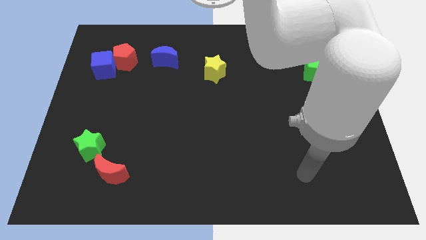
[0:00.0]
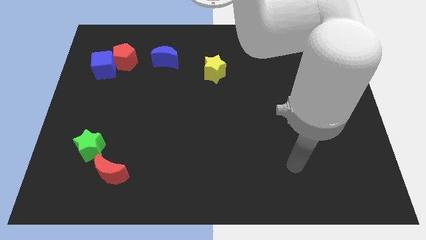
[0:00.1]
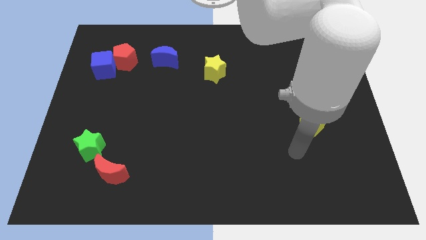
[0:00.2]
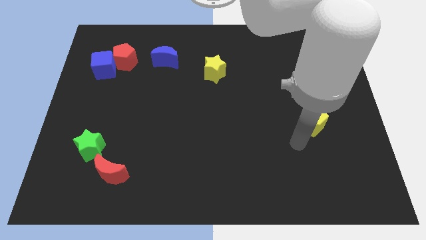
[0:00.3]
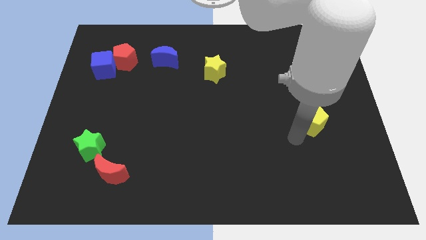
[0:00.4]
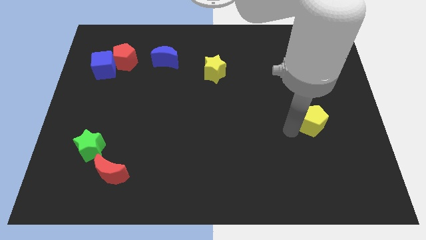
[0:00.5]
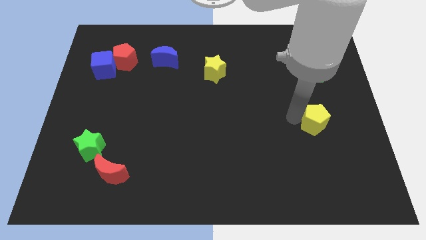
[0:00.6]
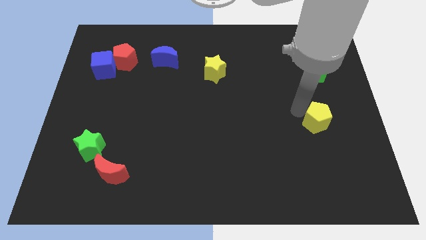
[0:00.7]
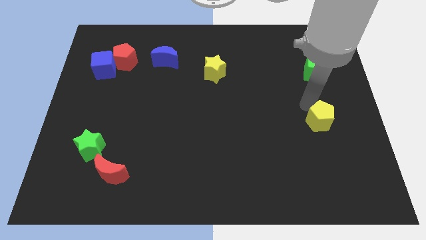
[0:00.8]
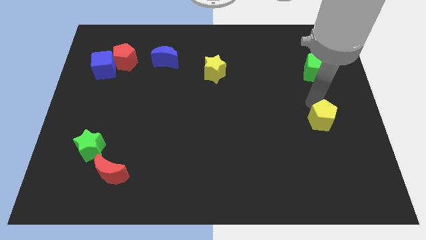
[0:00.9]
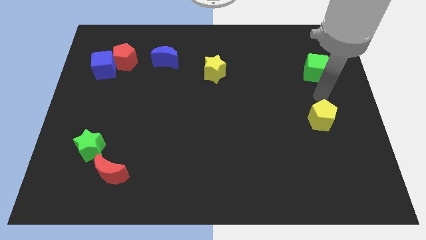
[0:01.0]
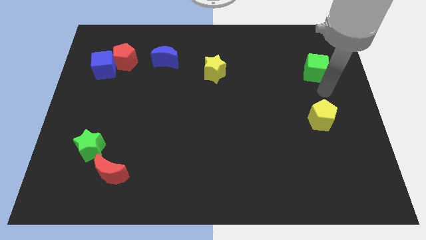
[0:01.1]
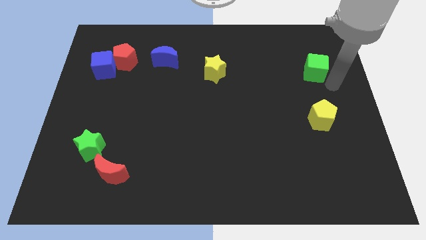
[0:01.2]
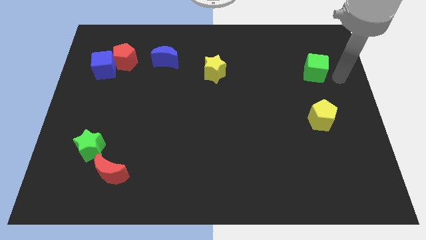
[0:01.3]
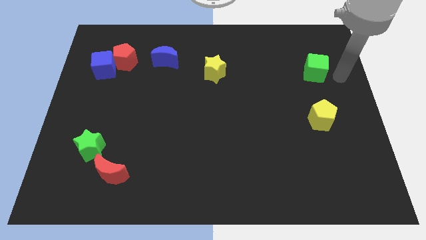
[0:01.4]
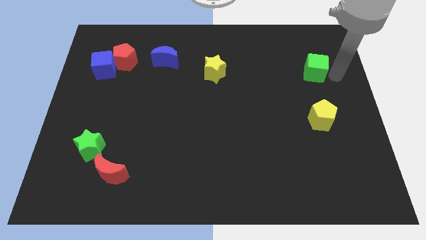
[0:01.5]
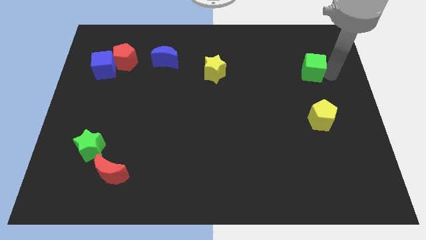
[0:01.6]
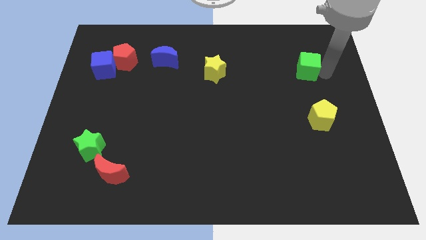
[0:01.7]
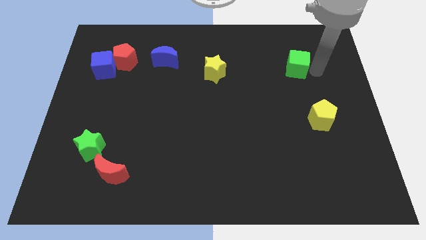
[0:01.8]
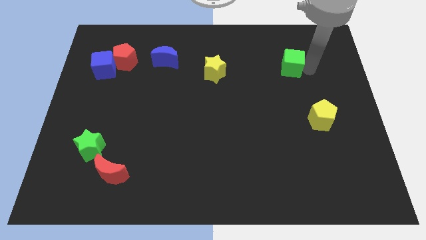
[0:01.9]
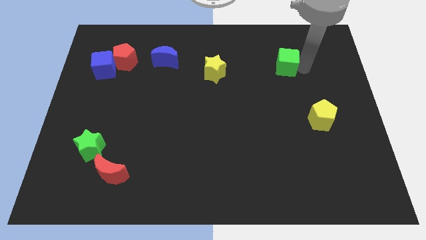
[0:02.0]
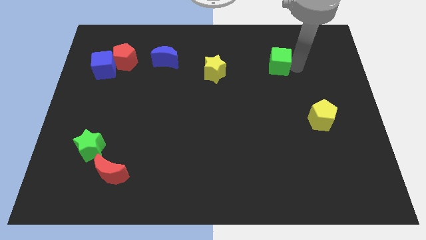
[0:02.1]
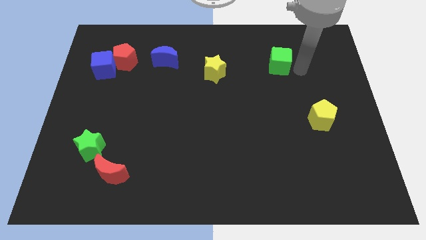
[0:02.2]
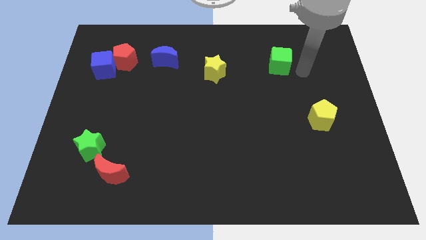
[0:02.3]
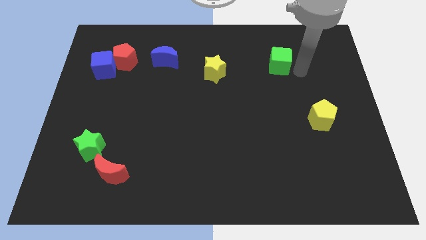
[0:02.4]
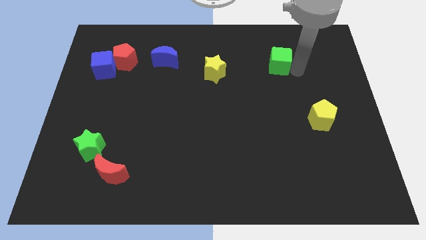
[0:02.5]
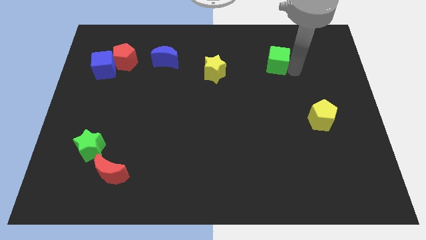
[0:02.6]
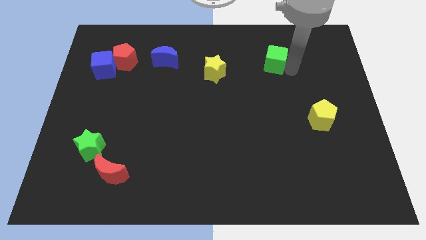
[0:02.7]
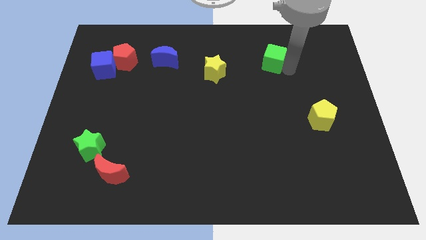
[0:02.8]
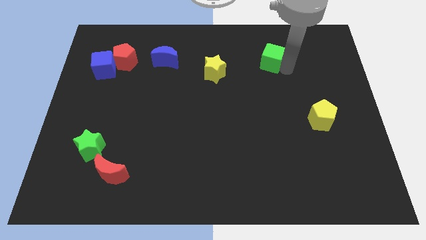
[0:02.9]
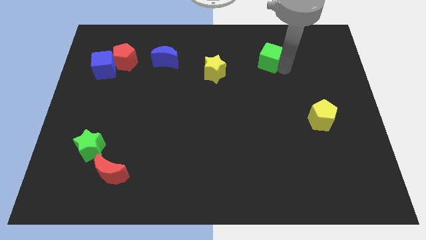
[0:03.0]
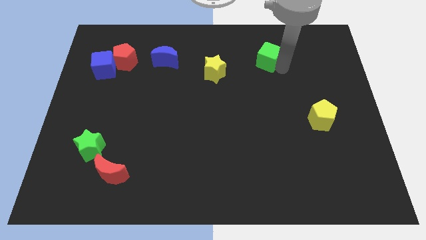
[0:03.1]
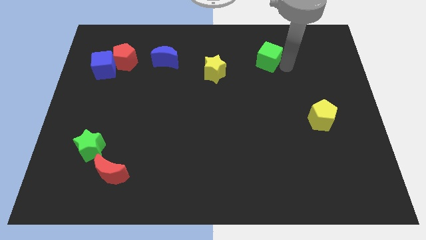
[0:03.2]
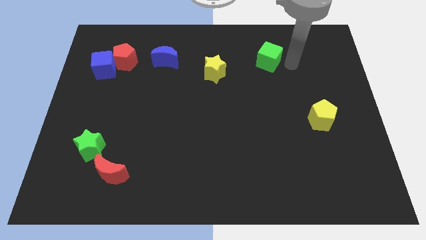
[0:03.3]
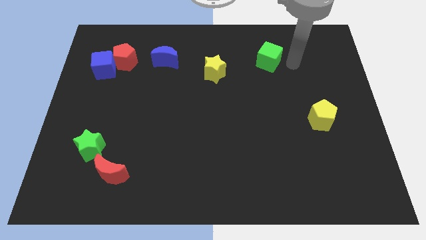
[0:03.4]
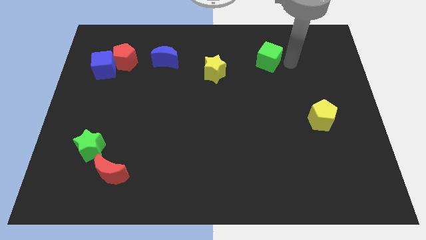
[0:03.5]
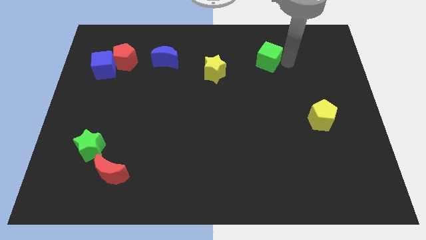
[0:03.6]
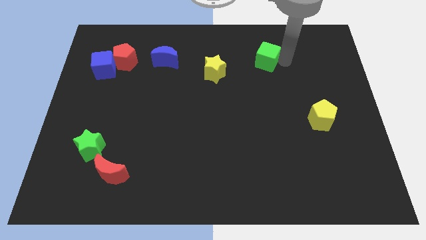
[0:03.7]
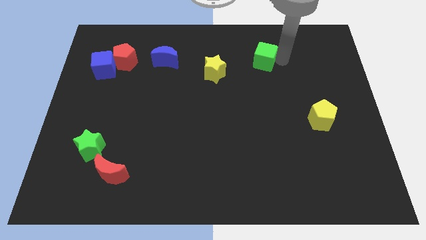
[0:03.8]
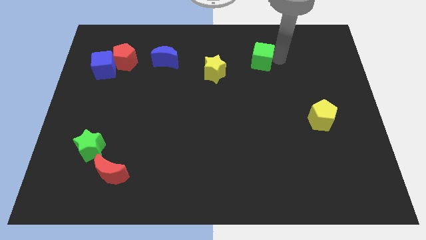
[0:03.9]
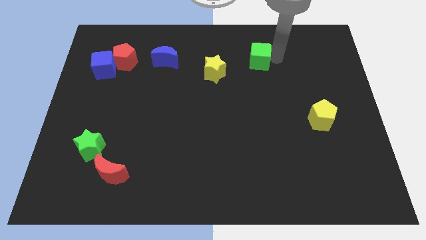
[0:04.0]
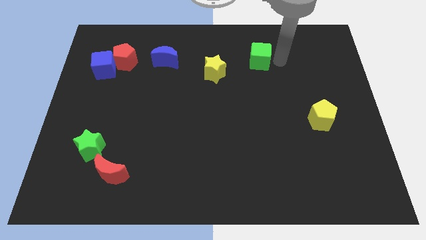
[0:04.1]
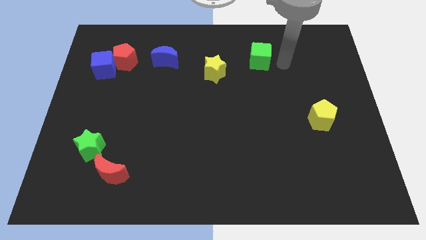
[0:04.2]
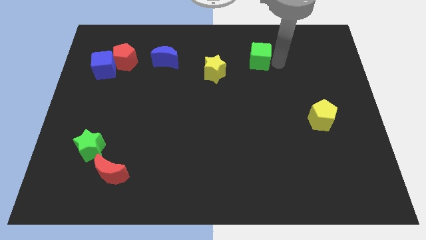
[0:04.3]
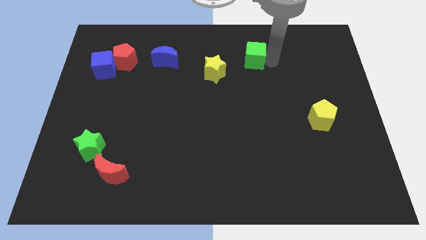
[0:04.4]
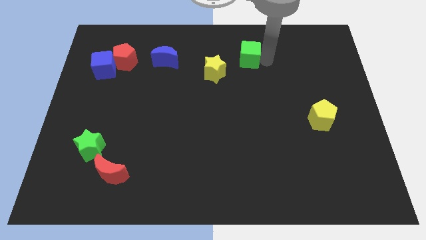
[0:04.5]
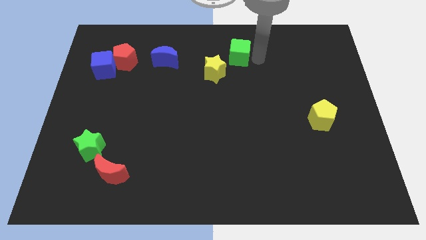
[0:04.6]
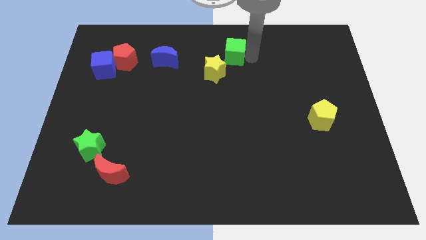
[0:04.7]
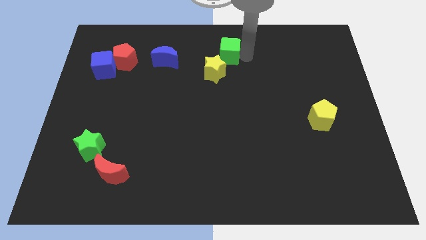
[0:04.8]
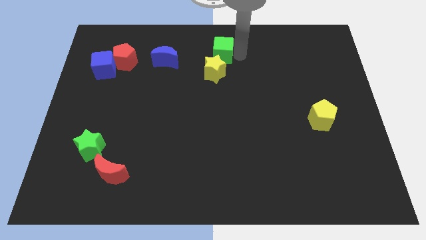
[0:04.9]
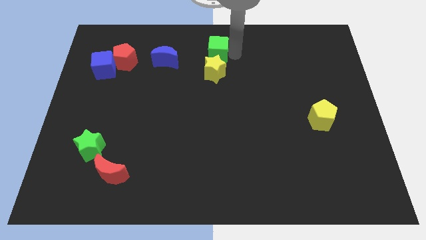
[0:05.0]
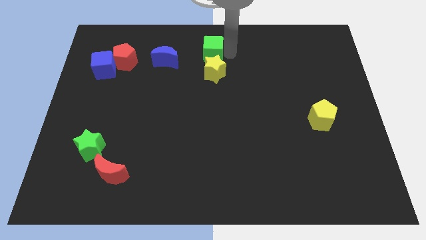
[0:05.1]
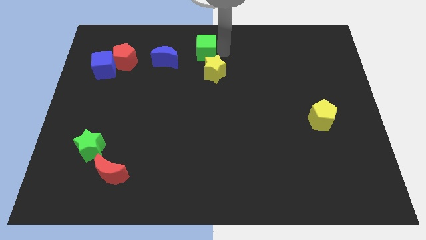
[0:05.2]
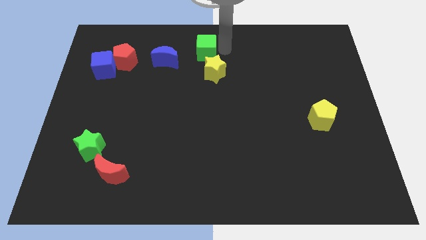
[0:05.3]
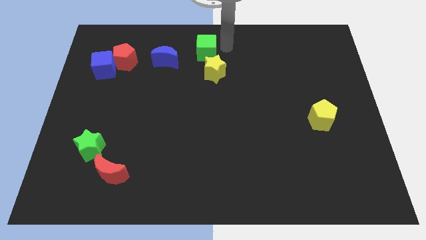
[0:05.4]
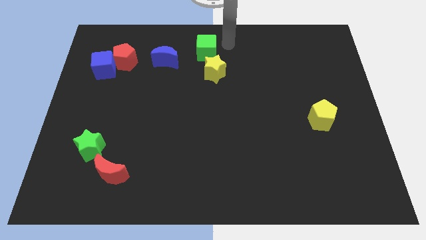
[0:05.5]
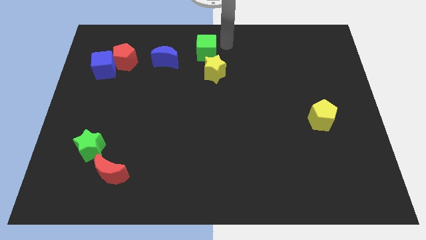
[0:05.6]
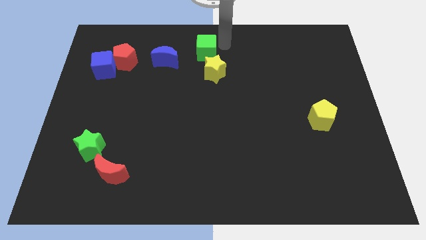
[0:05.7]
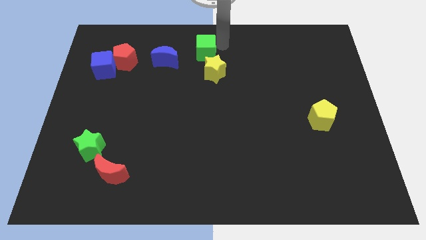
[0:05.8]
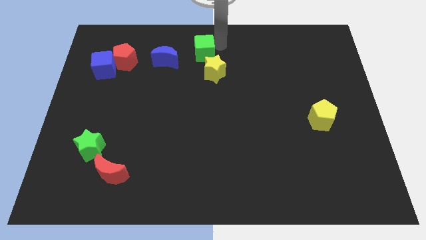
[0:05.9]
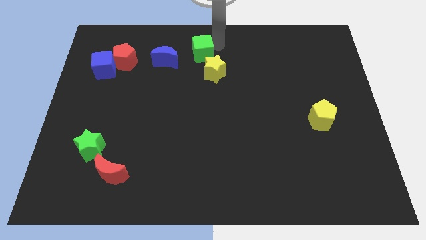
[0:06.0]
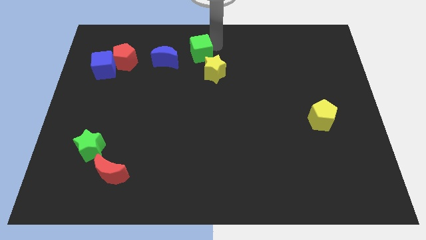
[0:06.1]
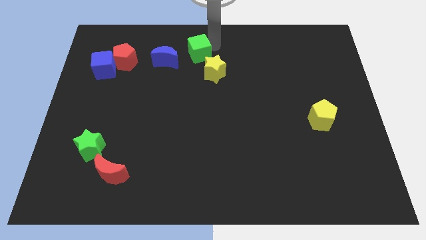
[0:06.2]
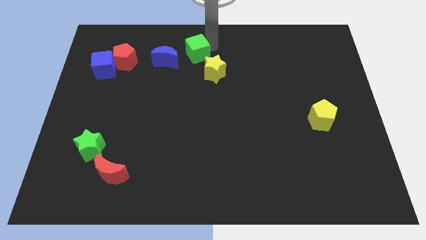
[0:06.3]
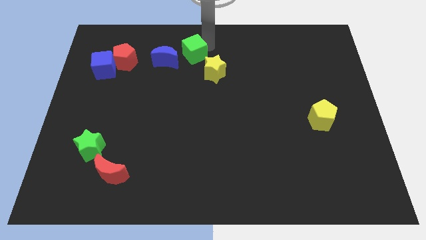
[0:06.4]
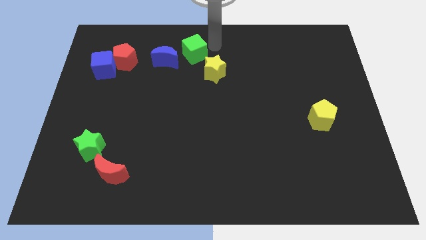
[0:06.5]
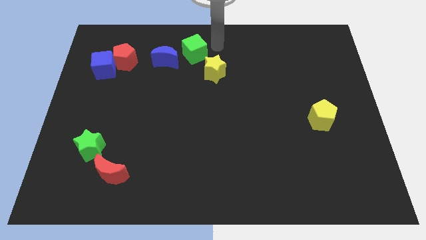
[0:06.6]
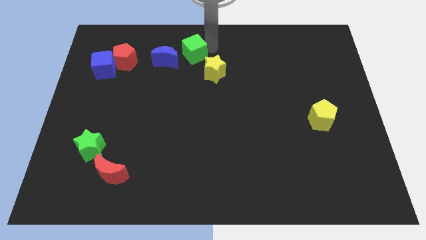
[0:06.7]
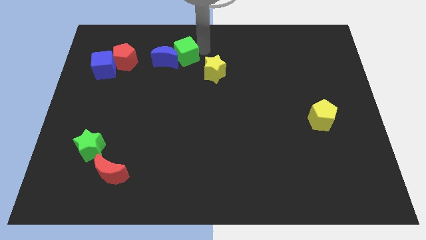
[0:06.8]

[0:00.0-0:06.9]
put the green cube towards the blue moon
